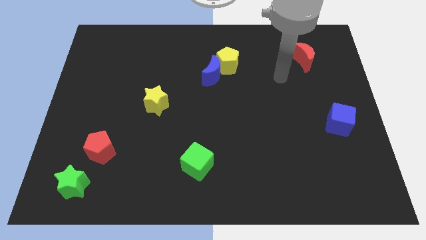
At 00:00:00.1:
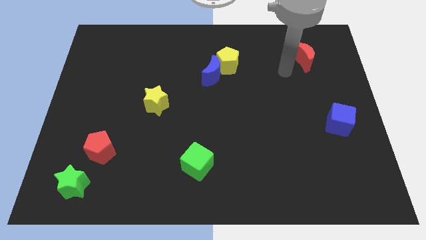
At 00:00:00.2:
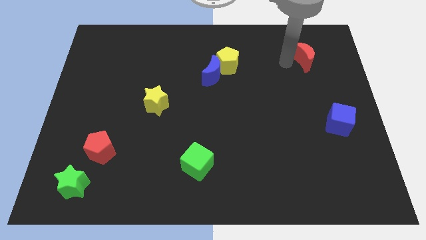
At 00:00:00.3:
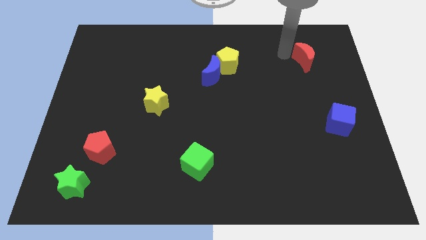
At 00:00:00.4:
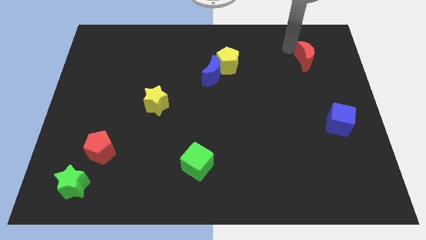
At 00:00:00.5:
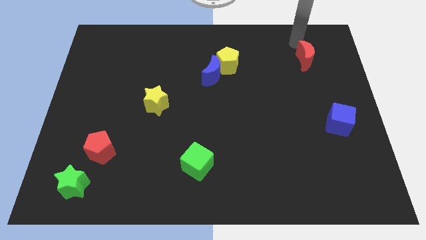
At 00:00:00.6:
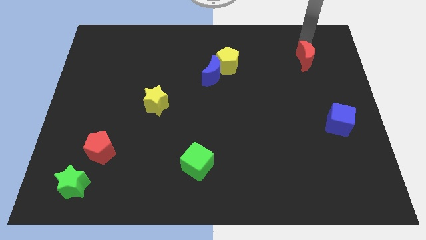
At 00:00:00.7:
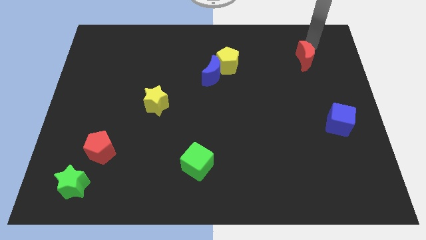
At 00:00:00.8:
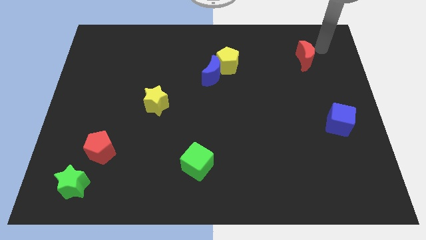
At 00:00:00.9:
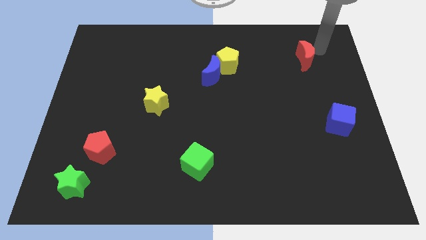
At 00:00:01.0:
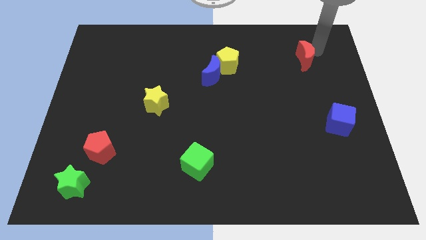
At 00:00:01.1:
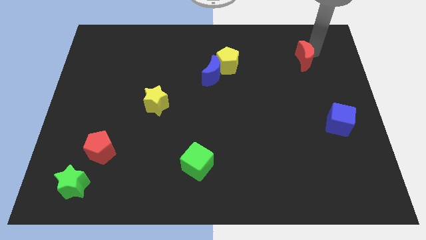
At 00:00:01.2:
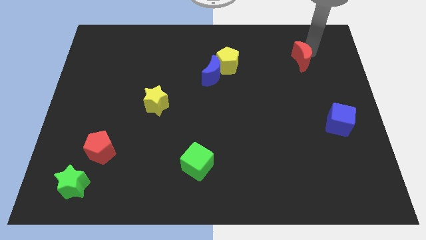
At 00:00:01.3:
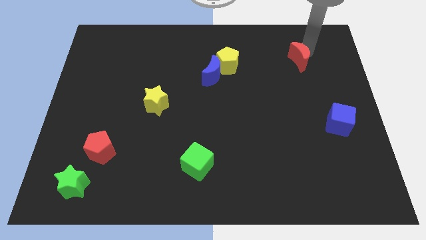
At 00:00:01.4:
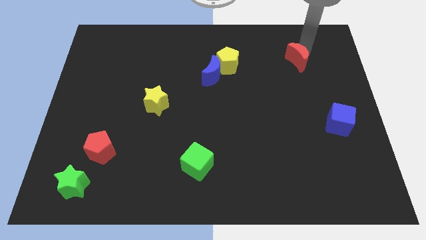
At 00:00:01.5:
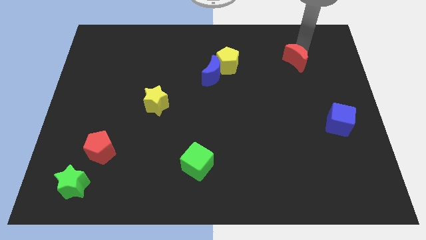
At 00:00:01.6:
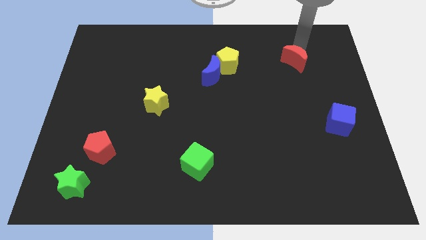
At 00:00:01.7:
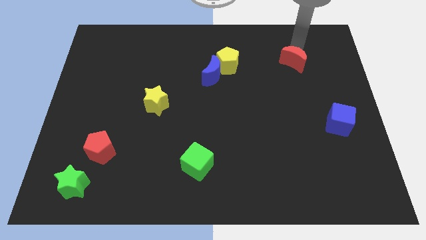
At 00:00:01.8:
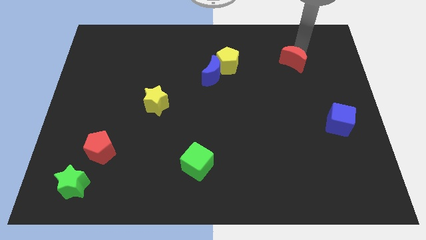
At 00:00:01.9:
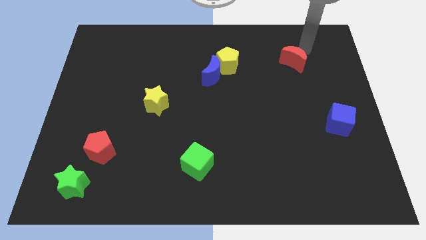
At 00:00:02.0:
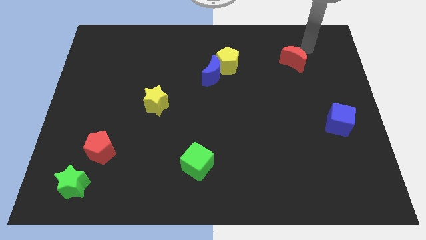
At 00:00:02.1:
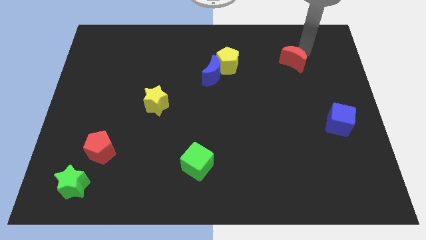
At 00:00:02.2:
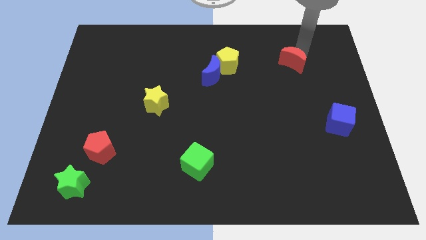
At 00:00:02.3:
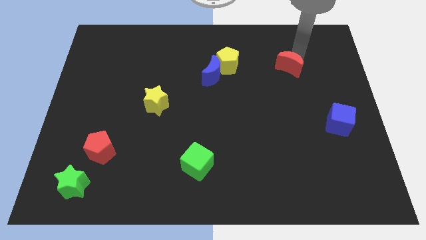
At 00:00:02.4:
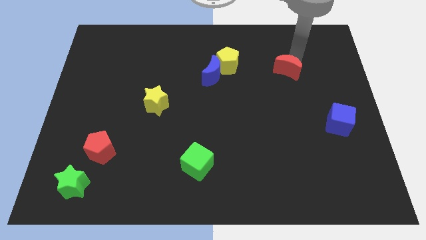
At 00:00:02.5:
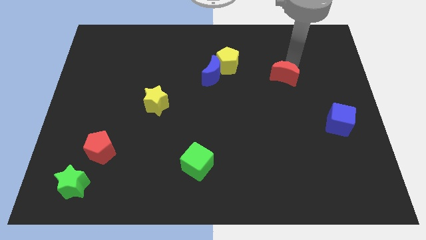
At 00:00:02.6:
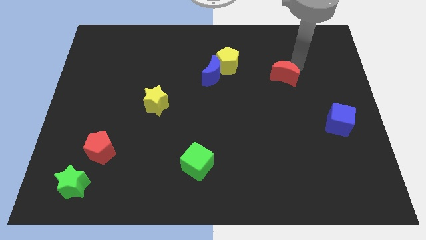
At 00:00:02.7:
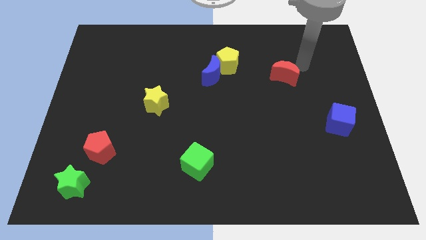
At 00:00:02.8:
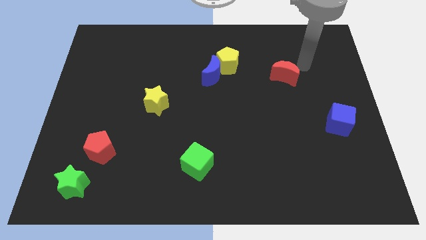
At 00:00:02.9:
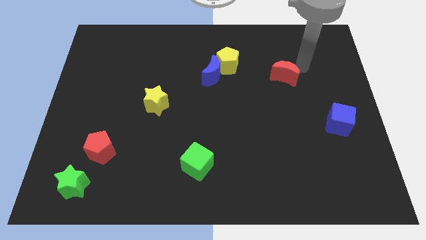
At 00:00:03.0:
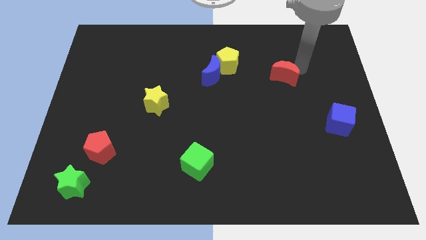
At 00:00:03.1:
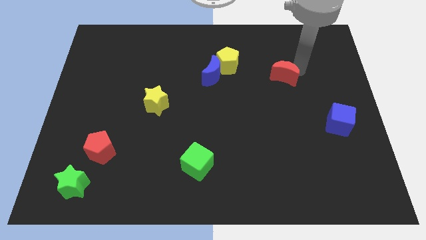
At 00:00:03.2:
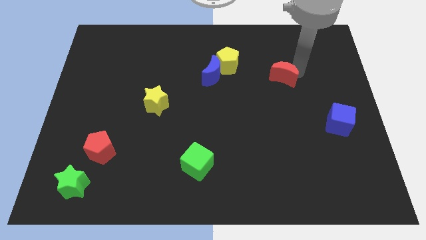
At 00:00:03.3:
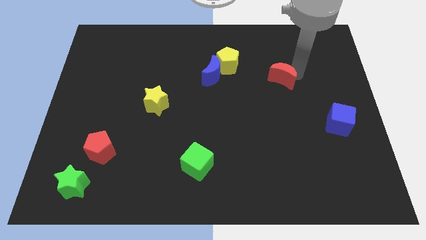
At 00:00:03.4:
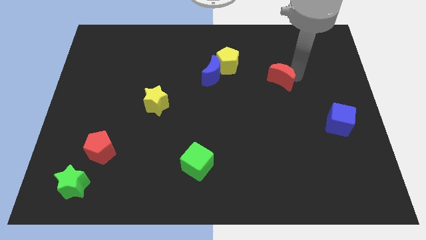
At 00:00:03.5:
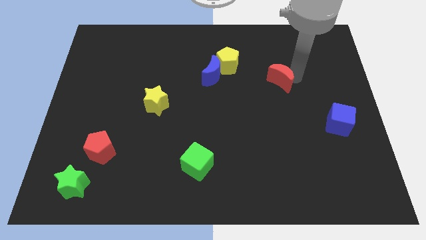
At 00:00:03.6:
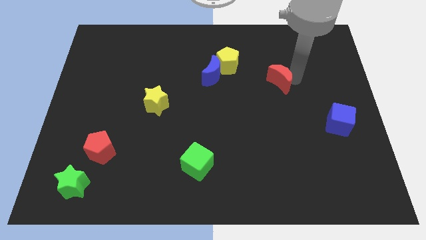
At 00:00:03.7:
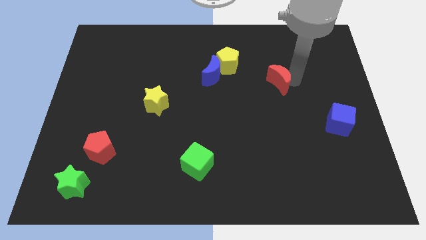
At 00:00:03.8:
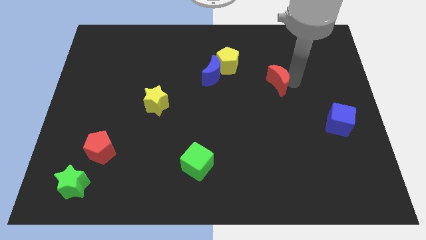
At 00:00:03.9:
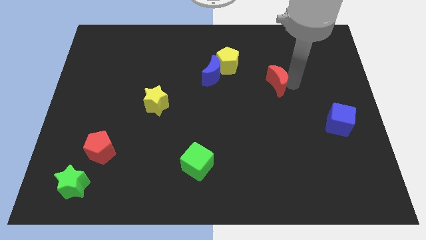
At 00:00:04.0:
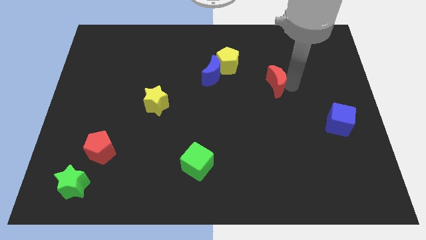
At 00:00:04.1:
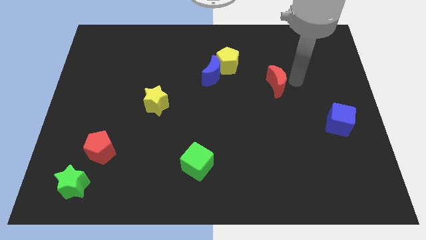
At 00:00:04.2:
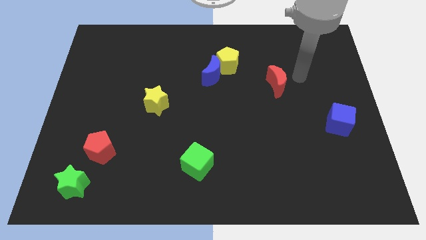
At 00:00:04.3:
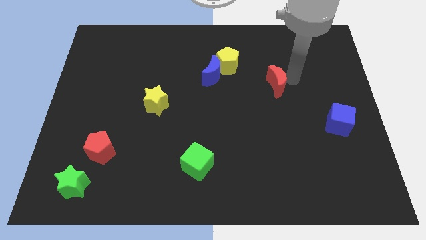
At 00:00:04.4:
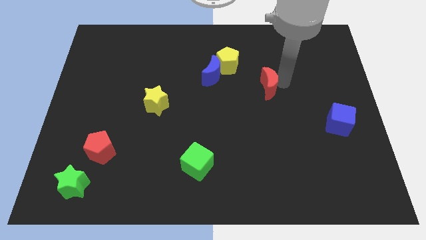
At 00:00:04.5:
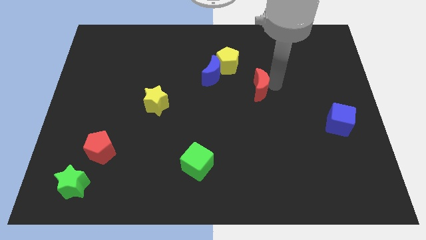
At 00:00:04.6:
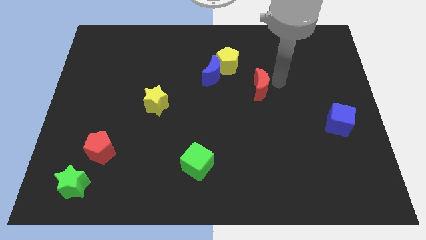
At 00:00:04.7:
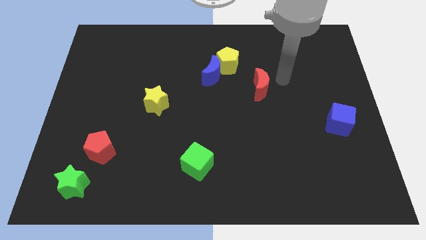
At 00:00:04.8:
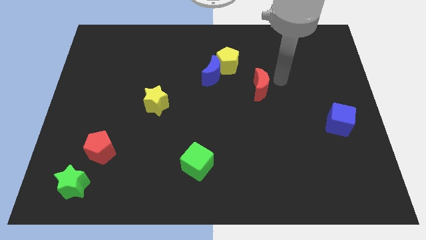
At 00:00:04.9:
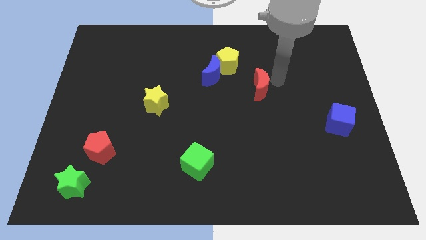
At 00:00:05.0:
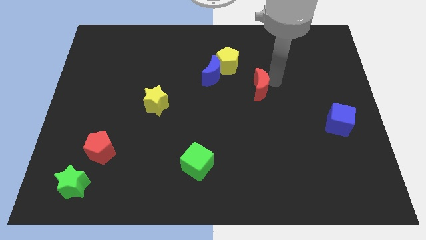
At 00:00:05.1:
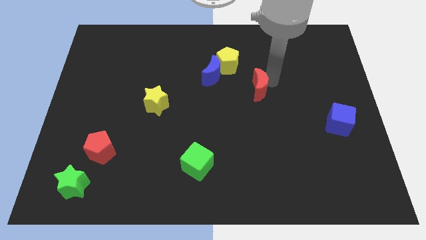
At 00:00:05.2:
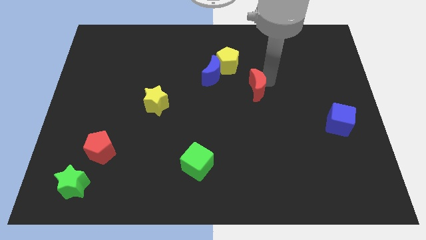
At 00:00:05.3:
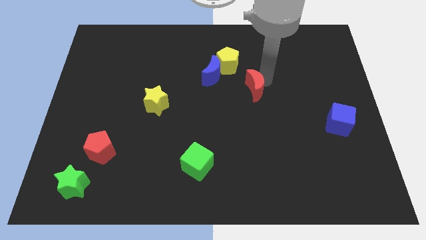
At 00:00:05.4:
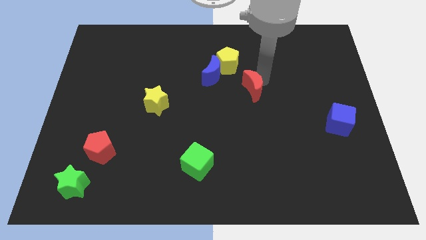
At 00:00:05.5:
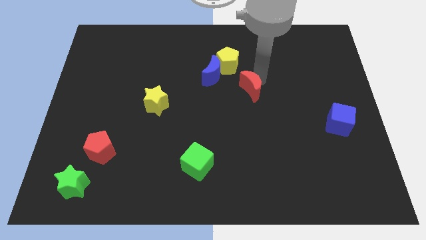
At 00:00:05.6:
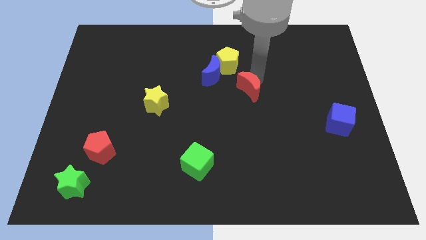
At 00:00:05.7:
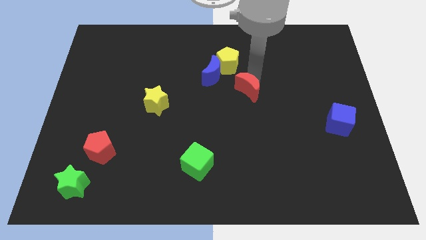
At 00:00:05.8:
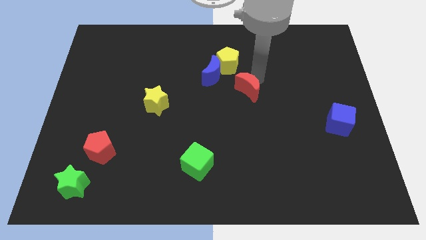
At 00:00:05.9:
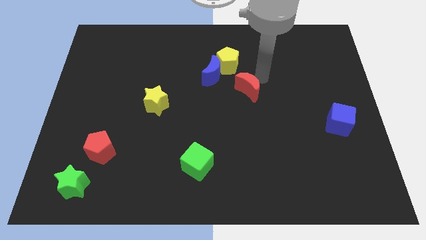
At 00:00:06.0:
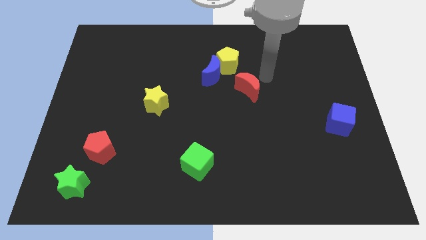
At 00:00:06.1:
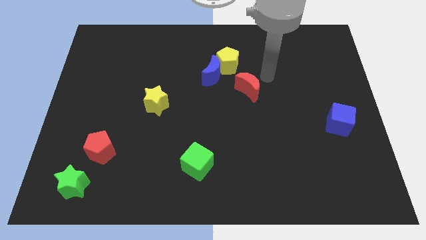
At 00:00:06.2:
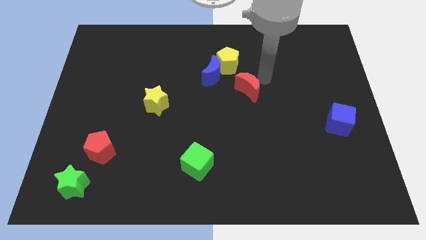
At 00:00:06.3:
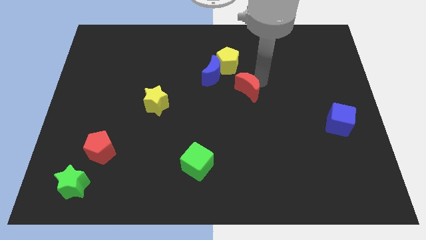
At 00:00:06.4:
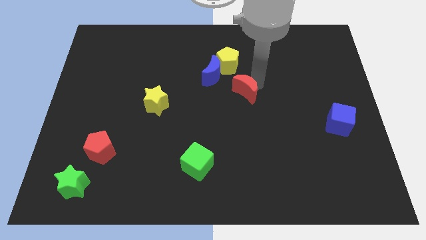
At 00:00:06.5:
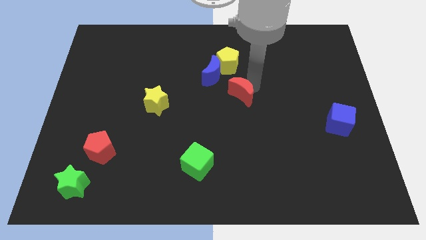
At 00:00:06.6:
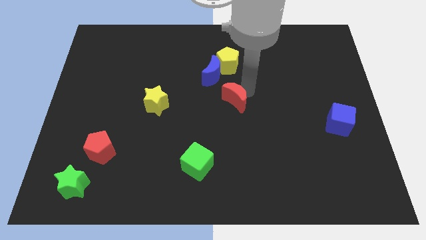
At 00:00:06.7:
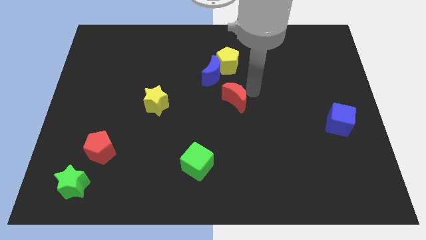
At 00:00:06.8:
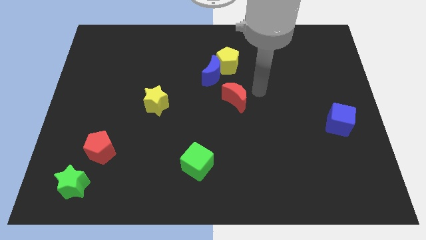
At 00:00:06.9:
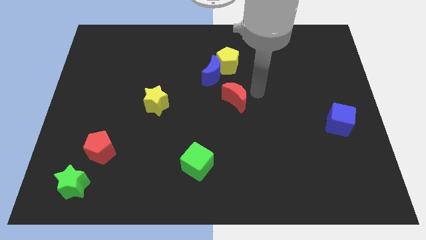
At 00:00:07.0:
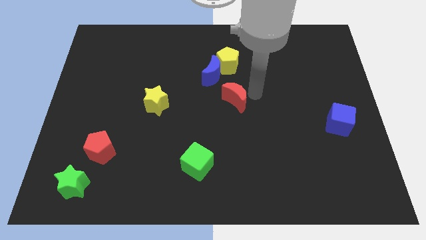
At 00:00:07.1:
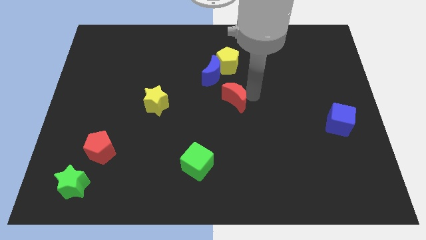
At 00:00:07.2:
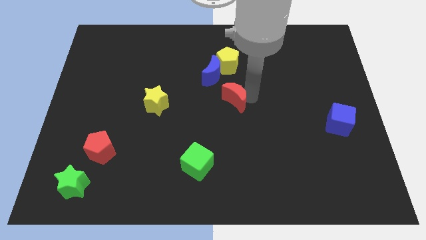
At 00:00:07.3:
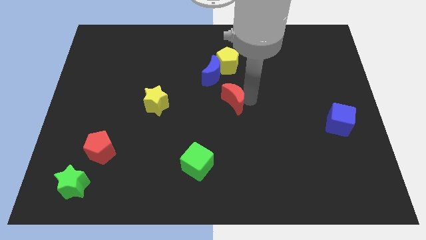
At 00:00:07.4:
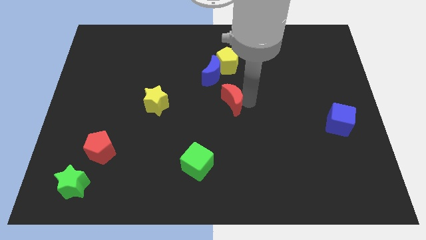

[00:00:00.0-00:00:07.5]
put the red moon to the bottom side of the blue moon
